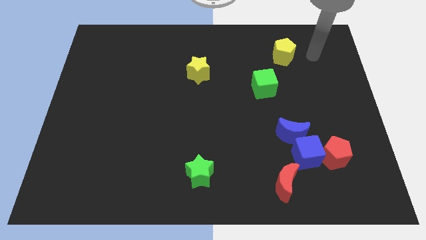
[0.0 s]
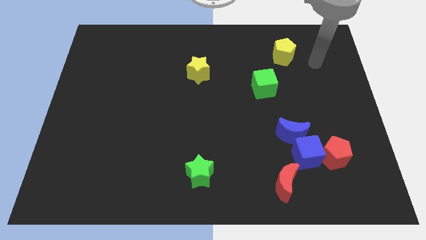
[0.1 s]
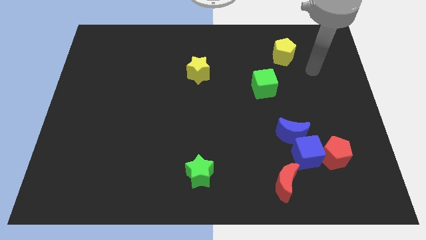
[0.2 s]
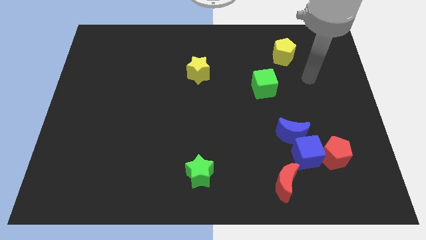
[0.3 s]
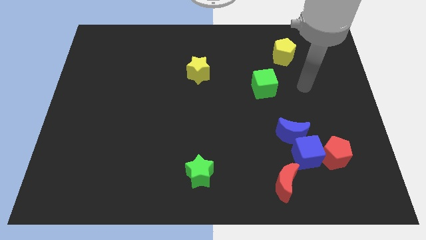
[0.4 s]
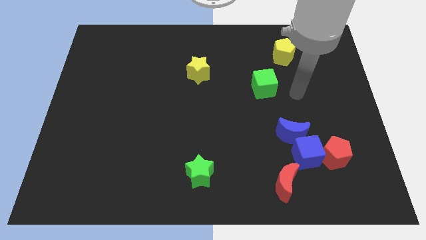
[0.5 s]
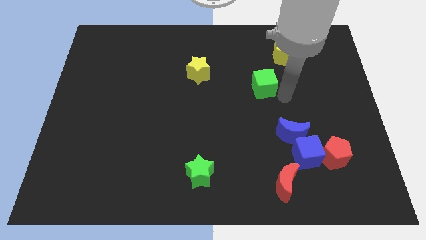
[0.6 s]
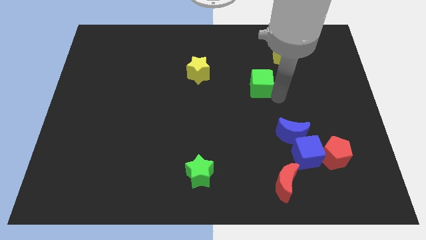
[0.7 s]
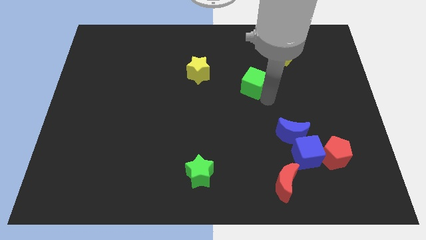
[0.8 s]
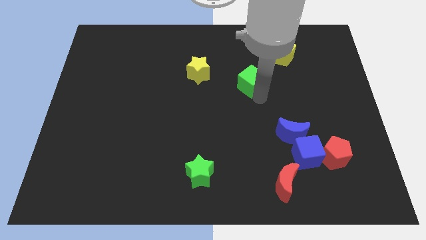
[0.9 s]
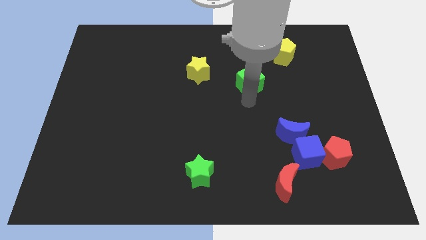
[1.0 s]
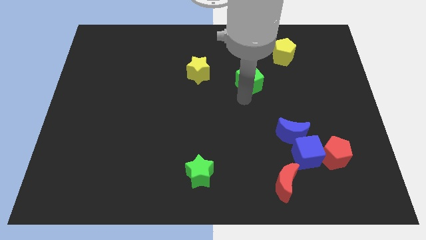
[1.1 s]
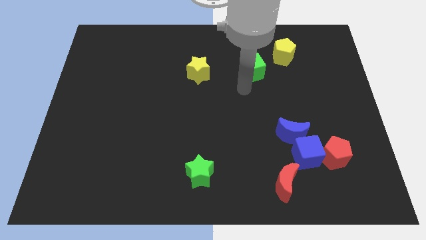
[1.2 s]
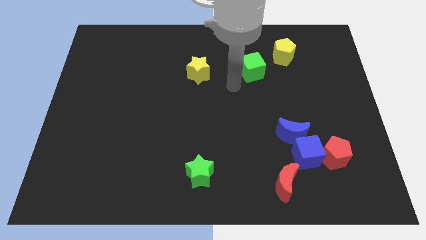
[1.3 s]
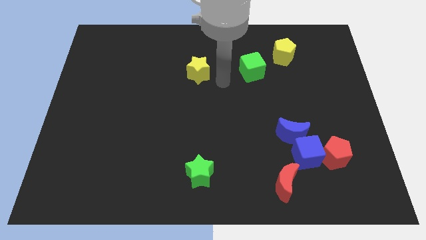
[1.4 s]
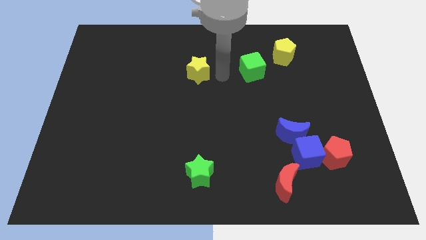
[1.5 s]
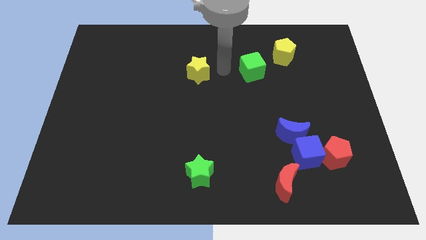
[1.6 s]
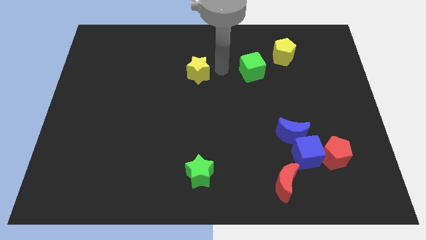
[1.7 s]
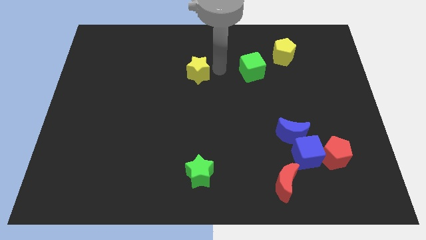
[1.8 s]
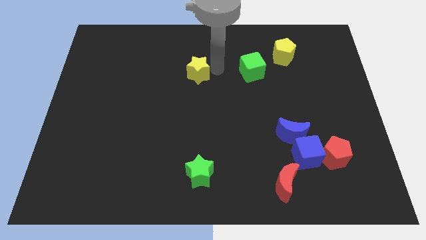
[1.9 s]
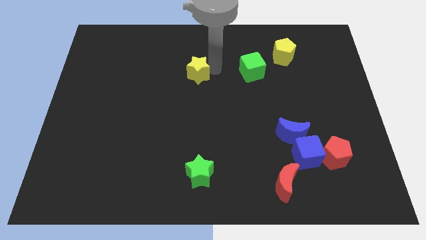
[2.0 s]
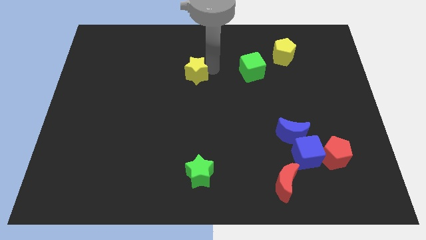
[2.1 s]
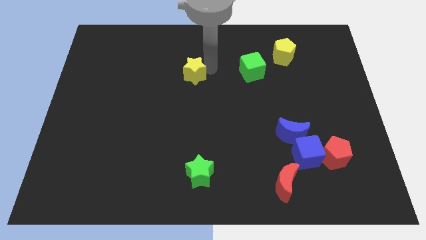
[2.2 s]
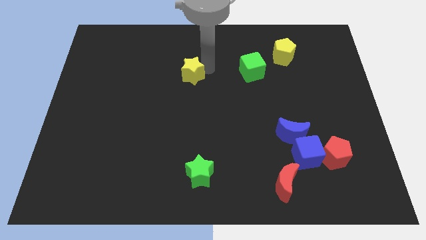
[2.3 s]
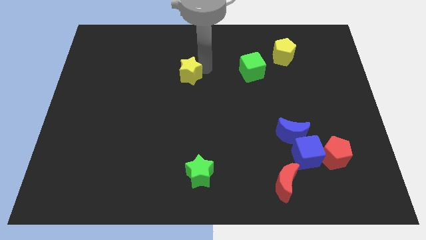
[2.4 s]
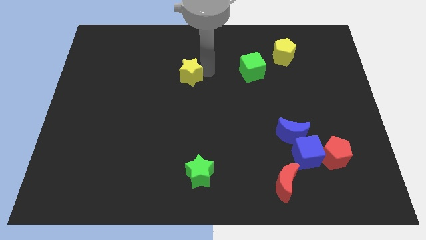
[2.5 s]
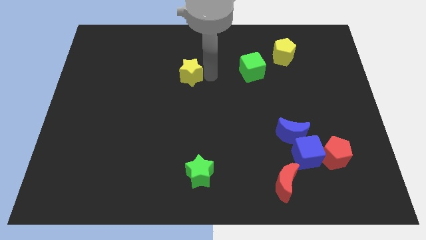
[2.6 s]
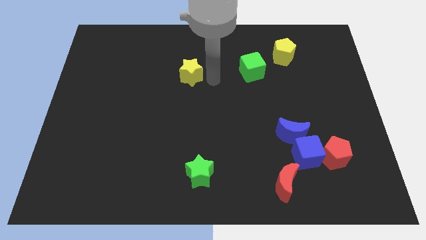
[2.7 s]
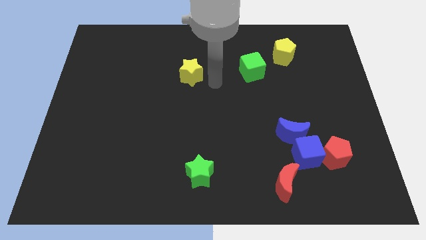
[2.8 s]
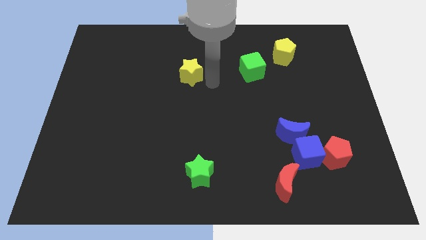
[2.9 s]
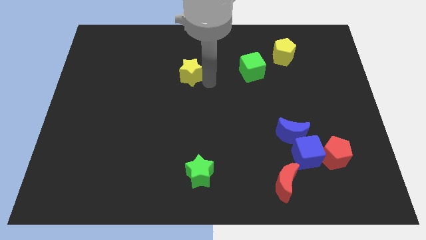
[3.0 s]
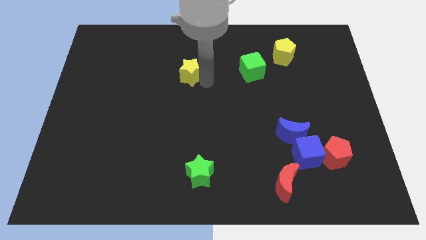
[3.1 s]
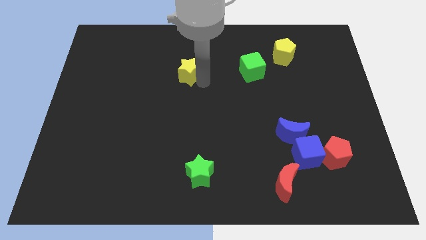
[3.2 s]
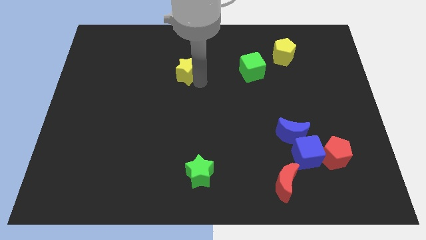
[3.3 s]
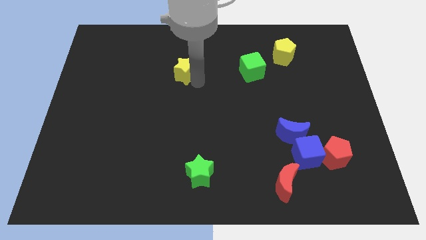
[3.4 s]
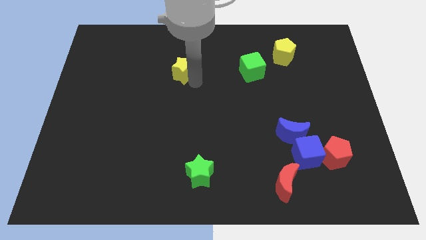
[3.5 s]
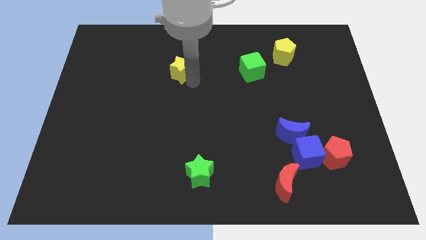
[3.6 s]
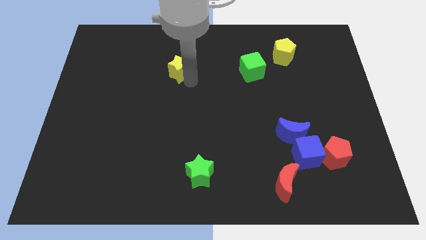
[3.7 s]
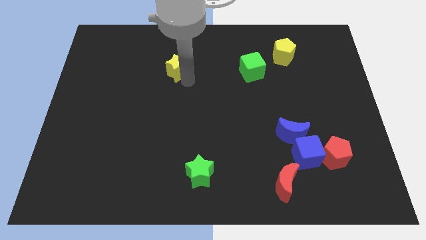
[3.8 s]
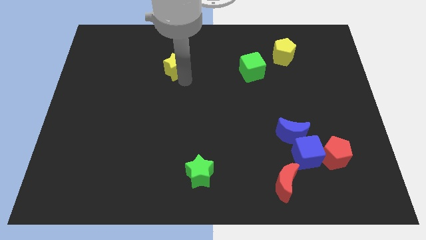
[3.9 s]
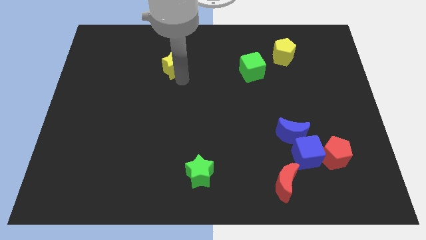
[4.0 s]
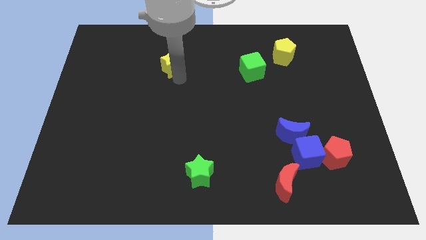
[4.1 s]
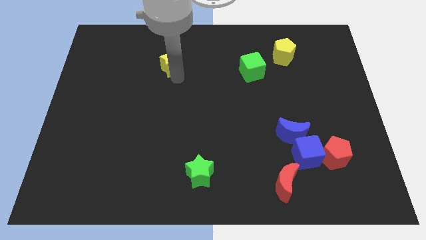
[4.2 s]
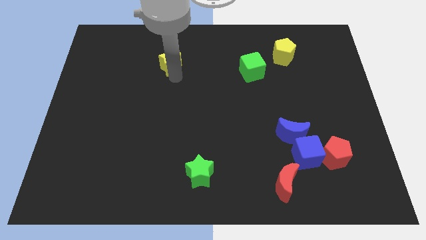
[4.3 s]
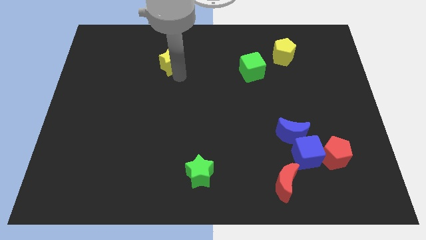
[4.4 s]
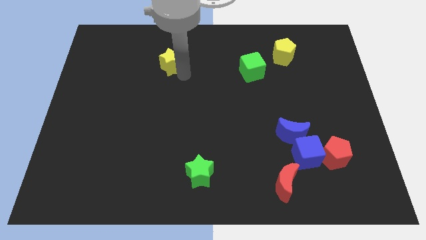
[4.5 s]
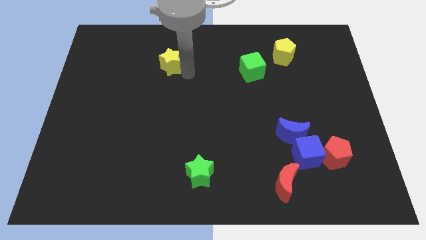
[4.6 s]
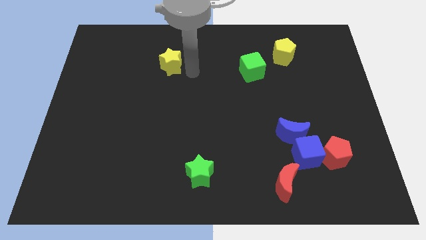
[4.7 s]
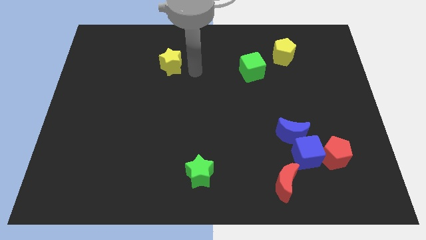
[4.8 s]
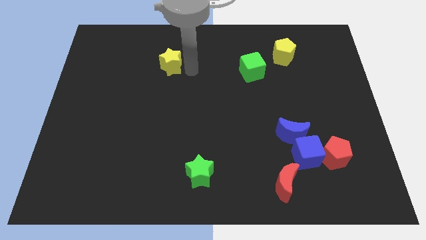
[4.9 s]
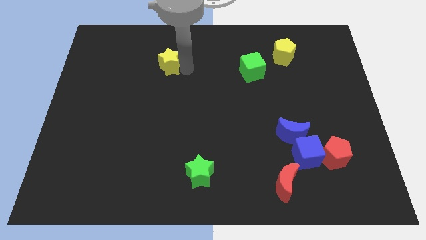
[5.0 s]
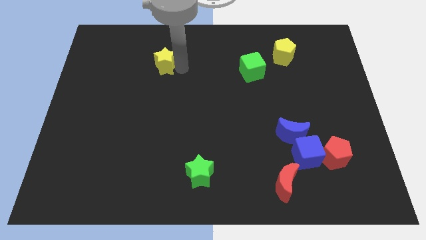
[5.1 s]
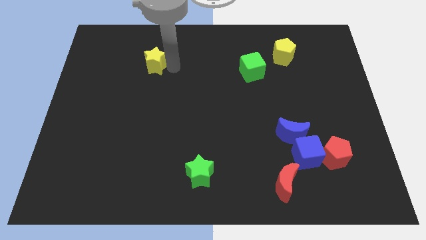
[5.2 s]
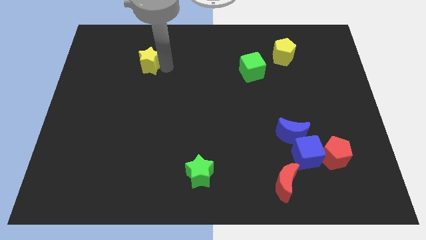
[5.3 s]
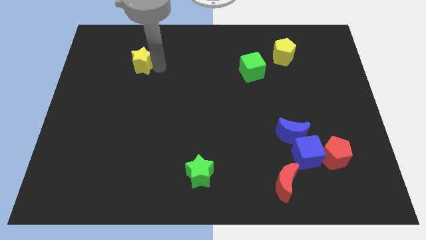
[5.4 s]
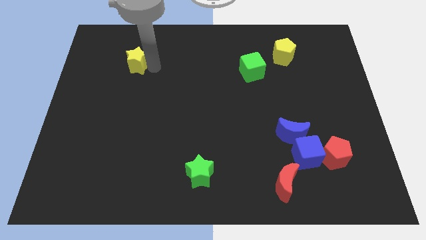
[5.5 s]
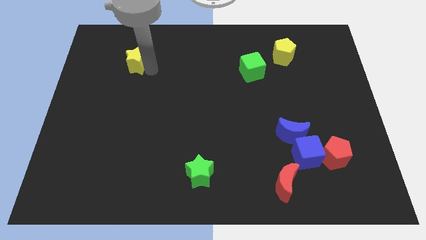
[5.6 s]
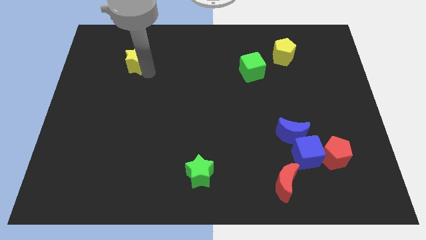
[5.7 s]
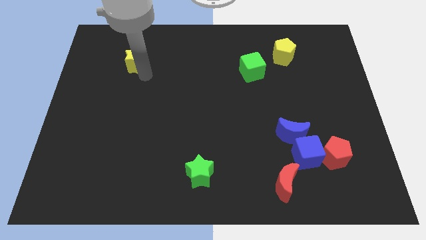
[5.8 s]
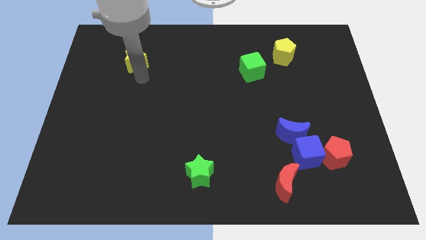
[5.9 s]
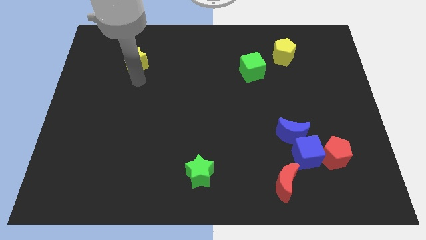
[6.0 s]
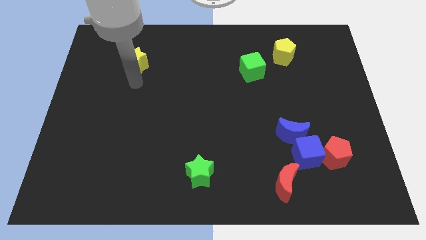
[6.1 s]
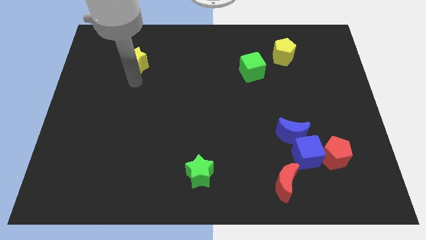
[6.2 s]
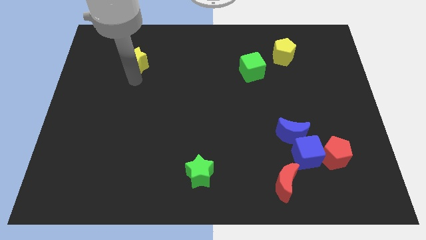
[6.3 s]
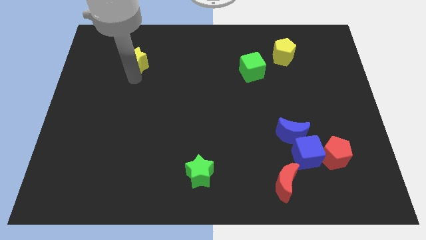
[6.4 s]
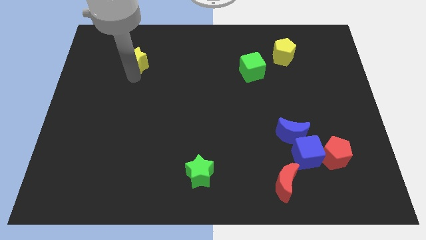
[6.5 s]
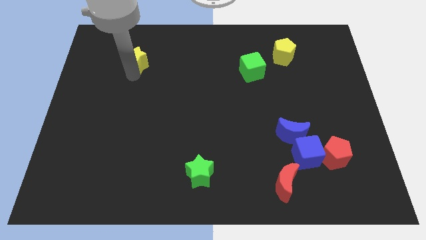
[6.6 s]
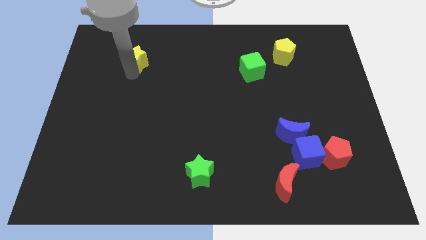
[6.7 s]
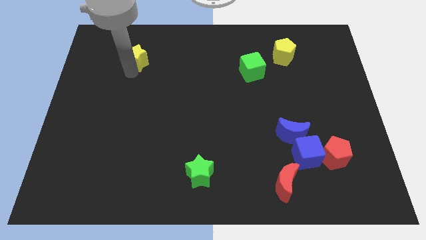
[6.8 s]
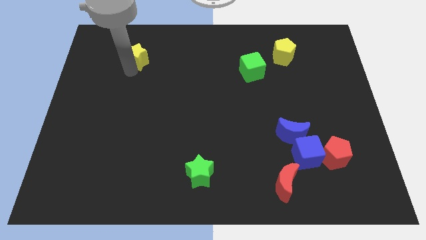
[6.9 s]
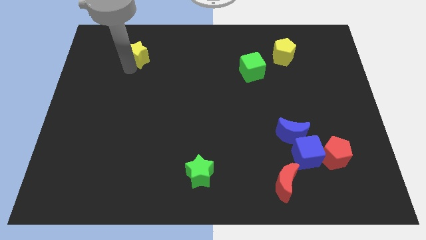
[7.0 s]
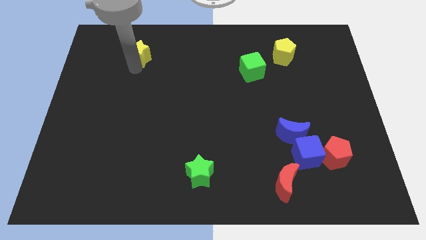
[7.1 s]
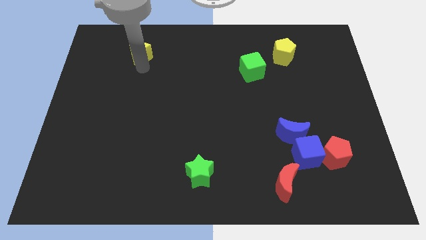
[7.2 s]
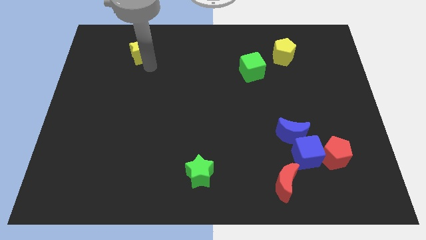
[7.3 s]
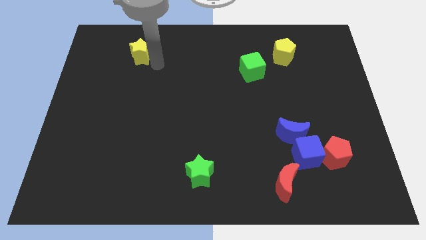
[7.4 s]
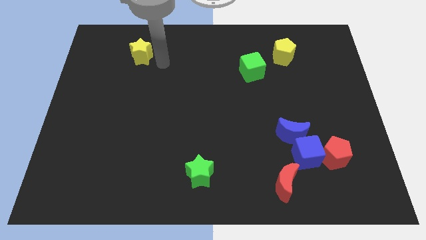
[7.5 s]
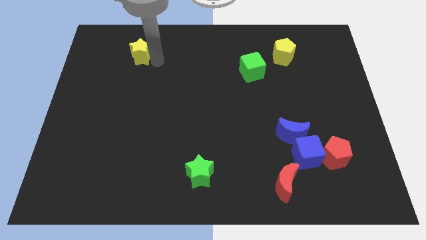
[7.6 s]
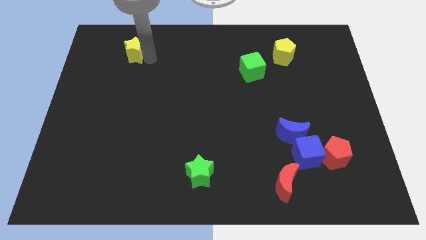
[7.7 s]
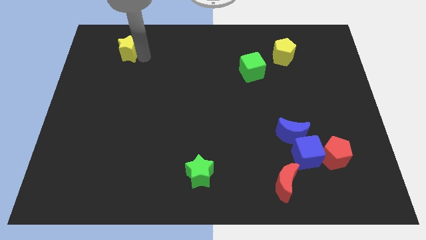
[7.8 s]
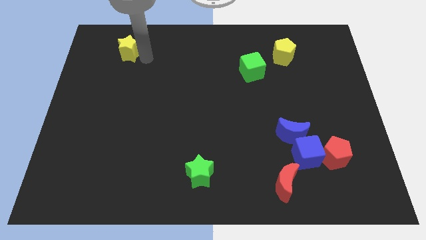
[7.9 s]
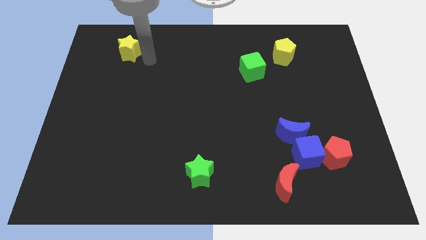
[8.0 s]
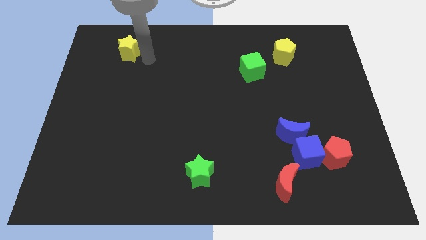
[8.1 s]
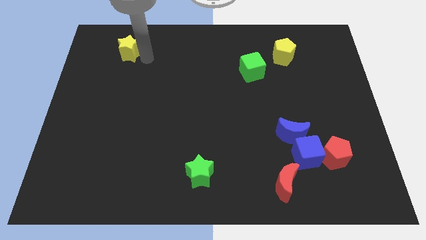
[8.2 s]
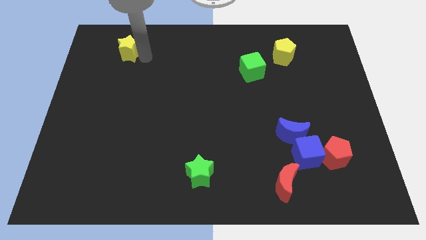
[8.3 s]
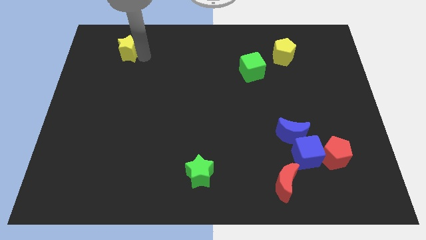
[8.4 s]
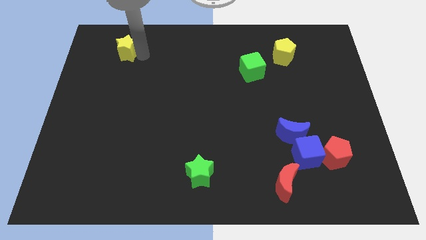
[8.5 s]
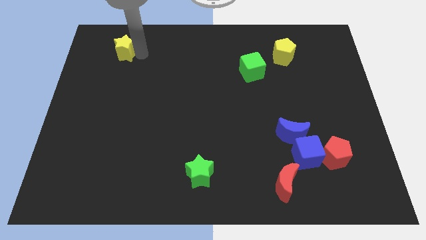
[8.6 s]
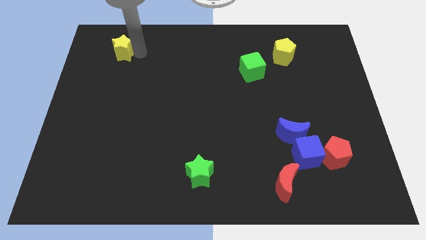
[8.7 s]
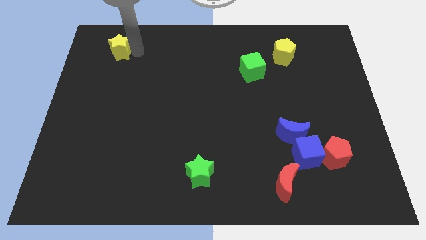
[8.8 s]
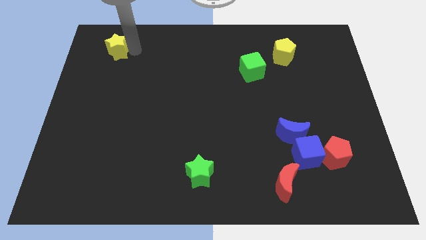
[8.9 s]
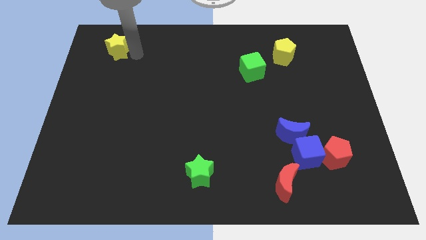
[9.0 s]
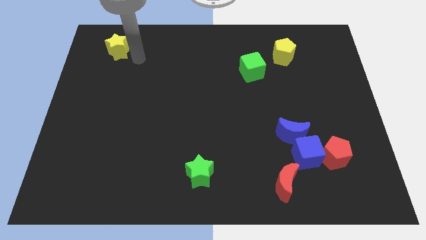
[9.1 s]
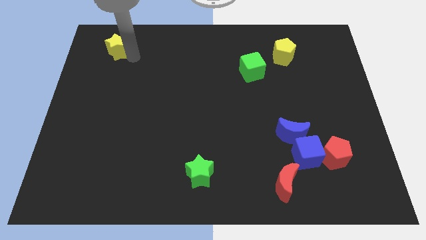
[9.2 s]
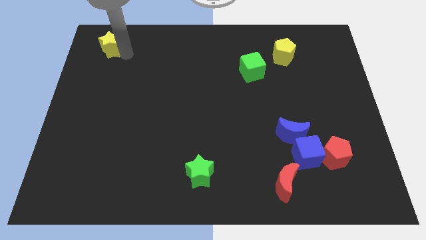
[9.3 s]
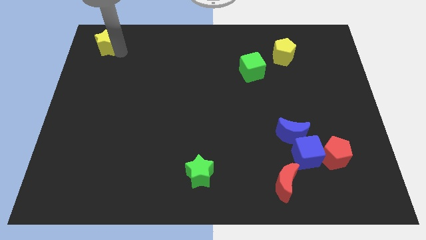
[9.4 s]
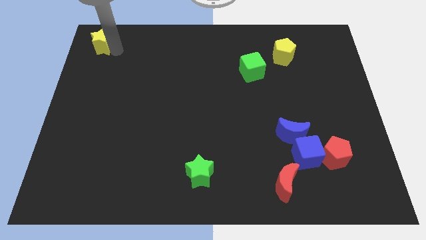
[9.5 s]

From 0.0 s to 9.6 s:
slide the yellow star to the top left of the board
